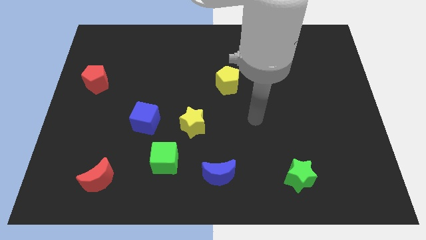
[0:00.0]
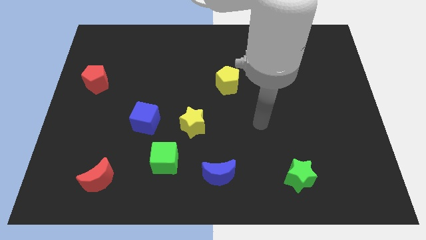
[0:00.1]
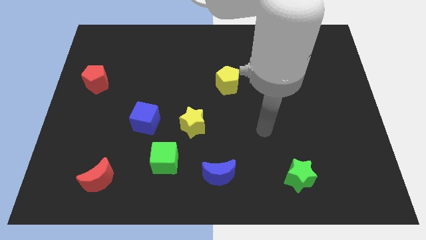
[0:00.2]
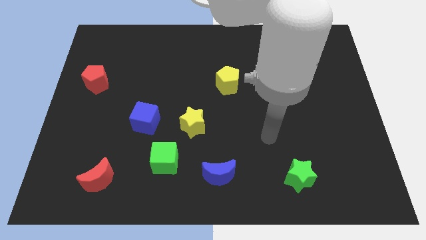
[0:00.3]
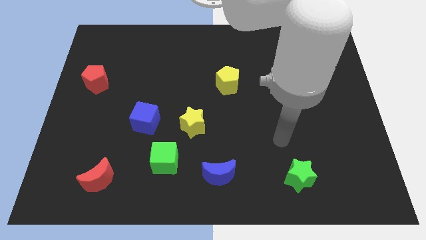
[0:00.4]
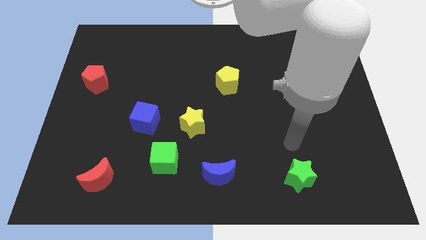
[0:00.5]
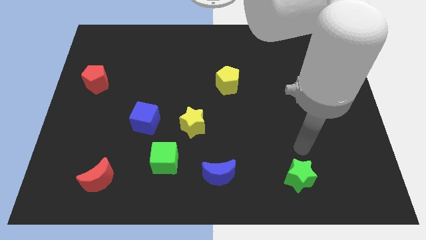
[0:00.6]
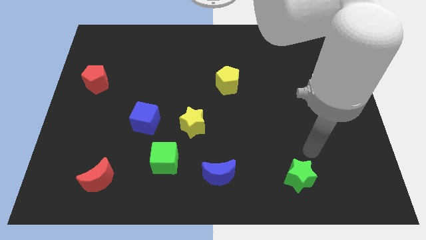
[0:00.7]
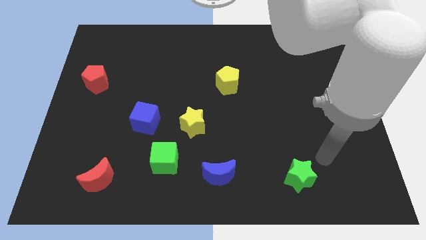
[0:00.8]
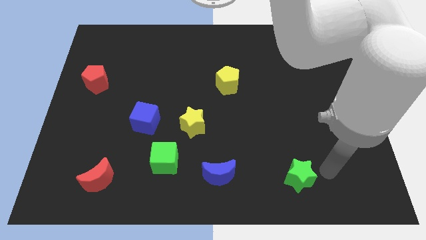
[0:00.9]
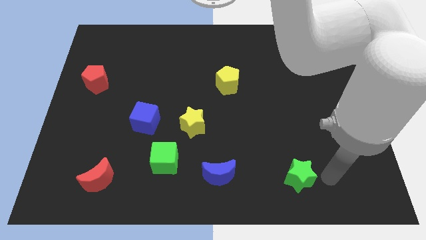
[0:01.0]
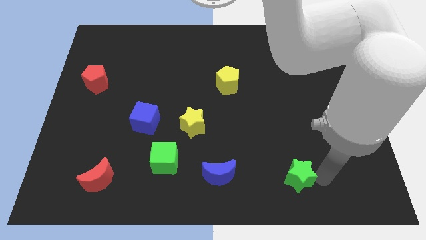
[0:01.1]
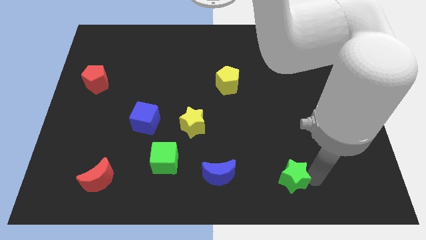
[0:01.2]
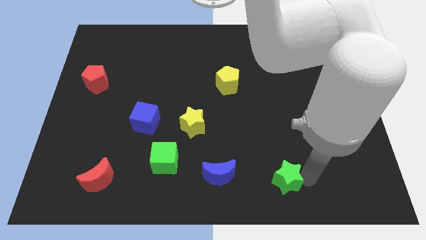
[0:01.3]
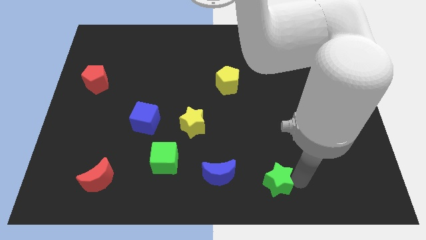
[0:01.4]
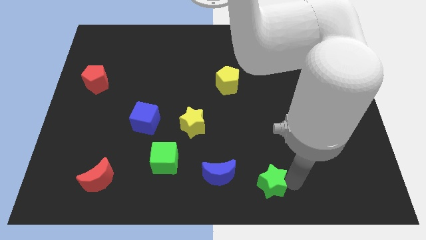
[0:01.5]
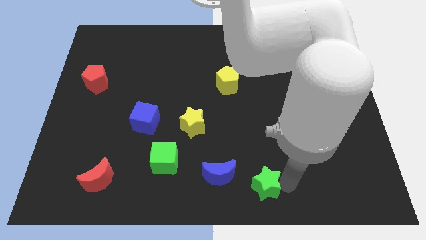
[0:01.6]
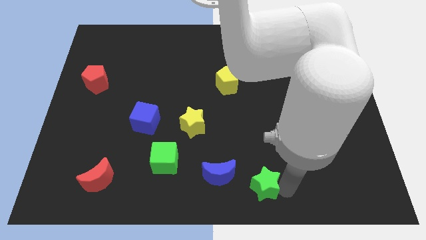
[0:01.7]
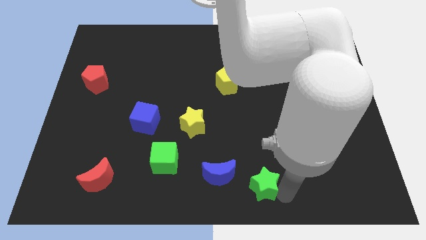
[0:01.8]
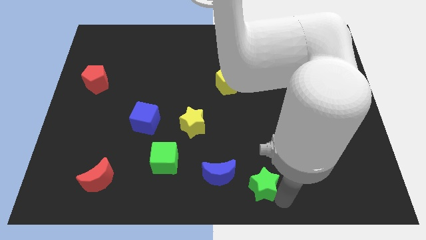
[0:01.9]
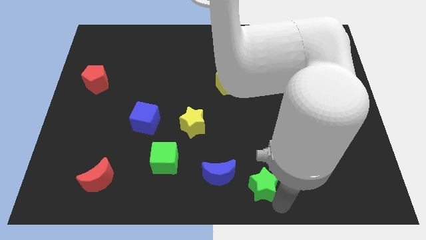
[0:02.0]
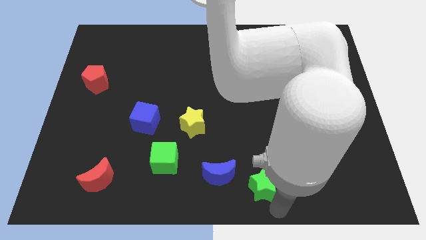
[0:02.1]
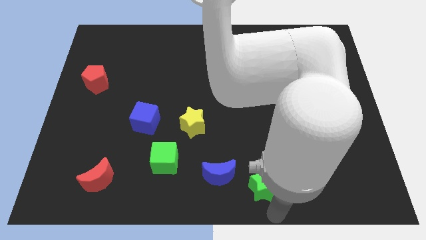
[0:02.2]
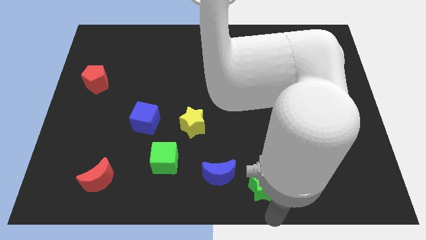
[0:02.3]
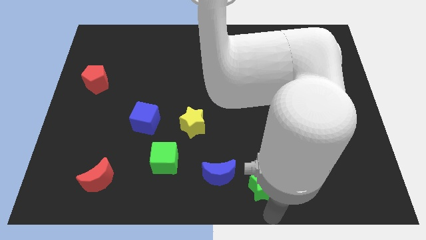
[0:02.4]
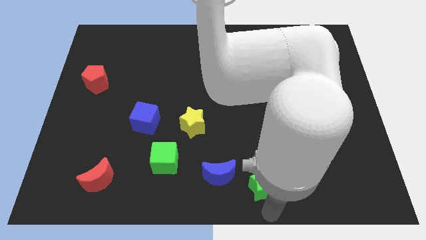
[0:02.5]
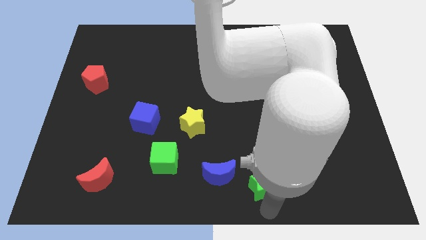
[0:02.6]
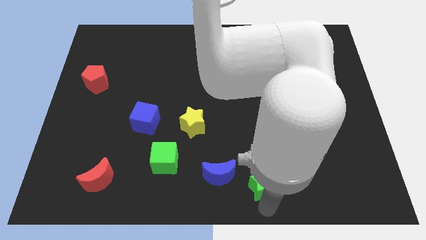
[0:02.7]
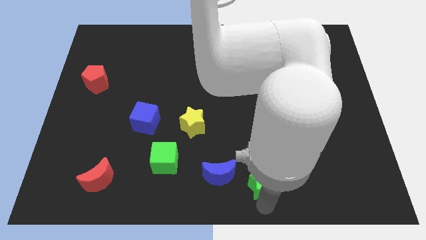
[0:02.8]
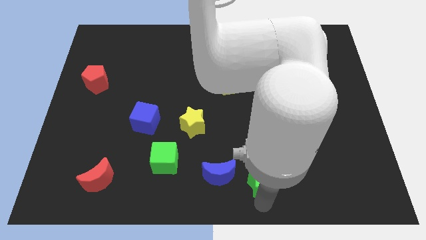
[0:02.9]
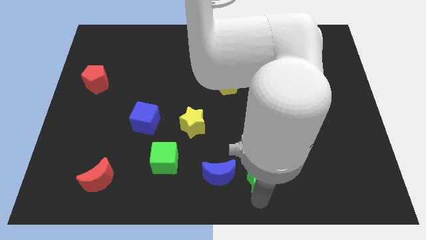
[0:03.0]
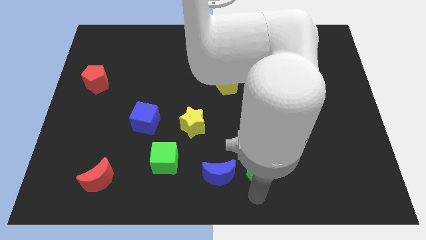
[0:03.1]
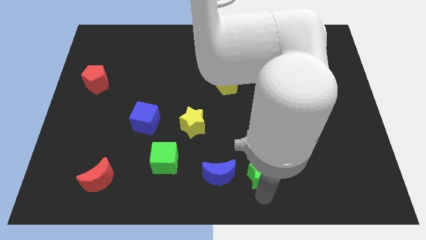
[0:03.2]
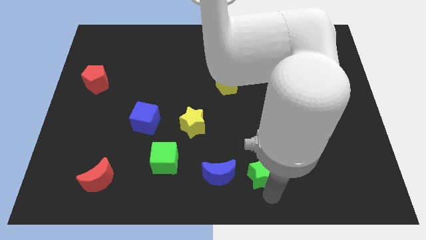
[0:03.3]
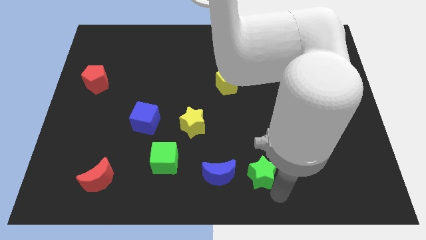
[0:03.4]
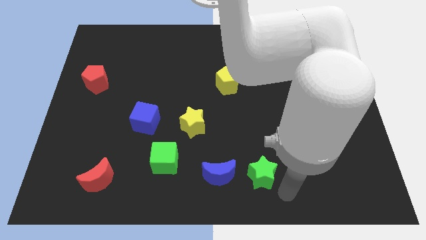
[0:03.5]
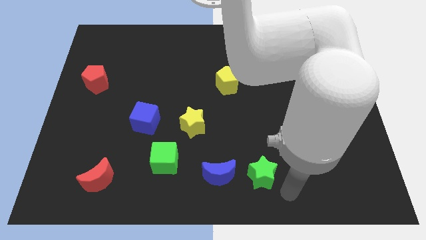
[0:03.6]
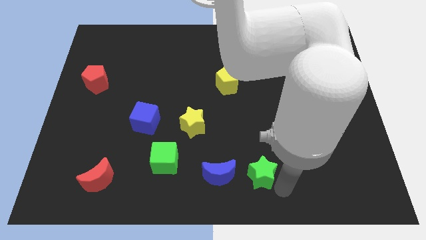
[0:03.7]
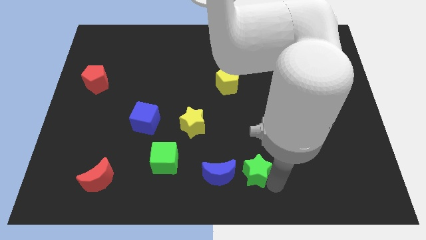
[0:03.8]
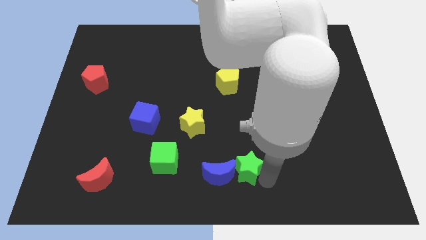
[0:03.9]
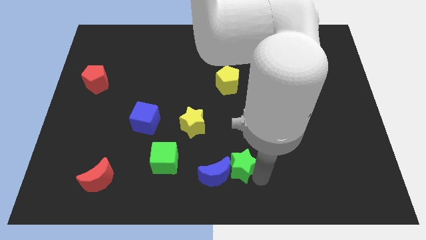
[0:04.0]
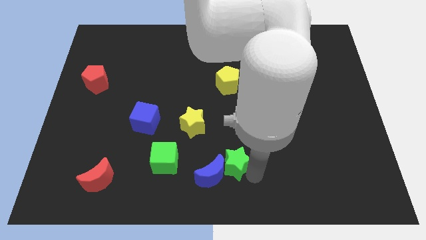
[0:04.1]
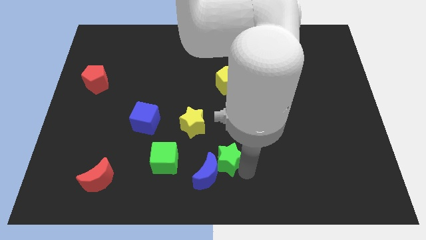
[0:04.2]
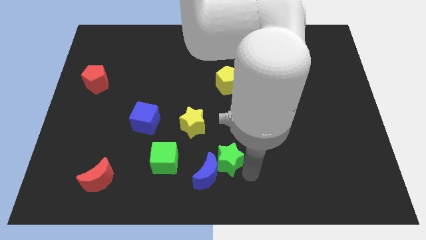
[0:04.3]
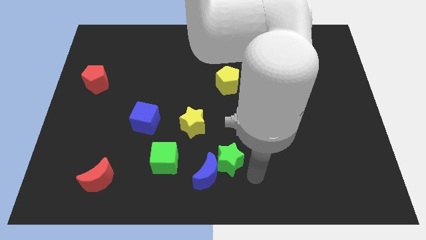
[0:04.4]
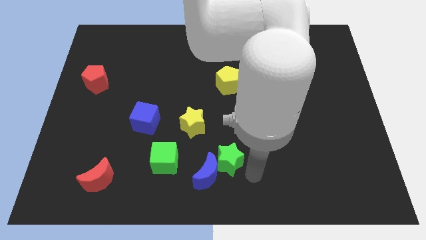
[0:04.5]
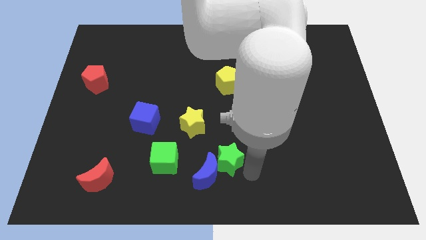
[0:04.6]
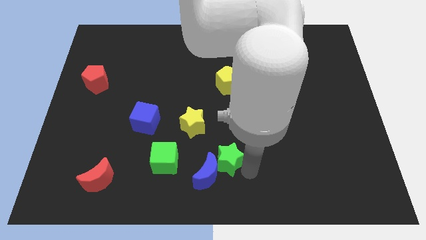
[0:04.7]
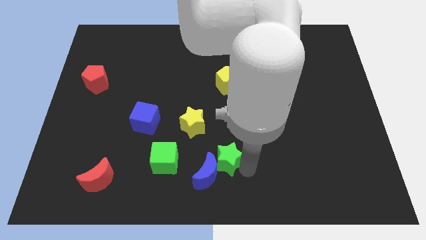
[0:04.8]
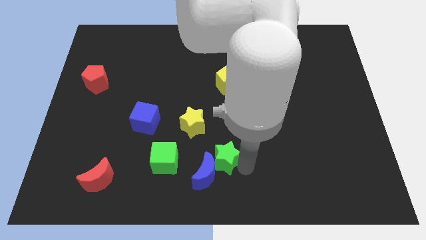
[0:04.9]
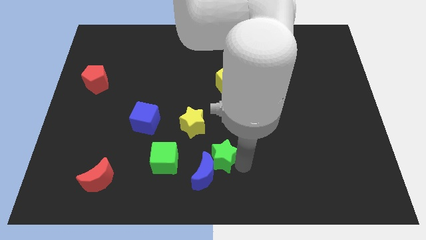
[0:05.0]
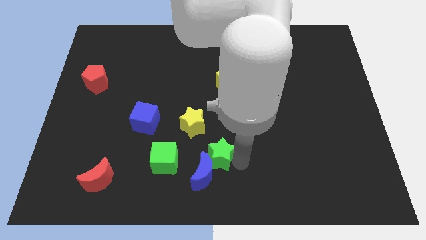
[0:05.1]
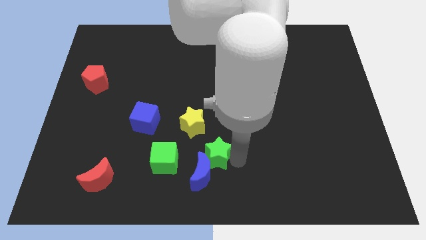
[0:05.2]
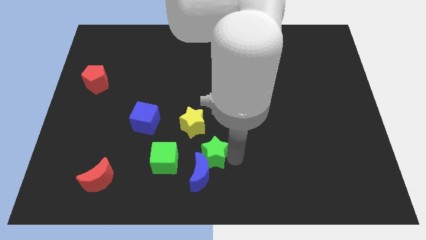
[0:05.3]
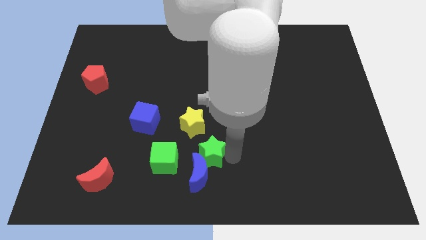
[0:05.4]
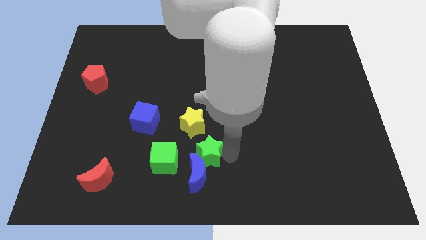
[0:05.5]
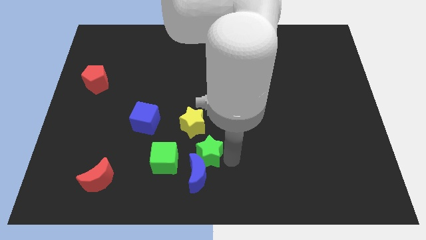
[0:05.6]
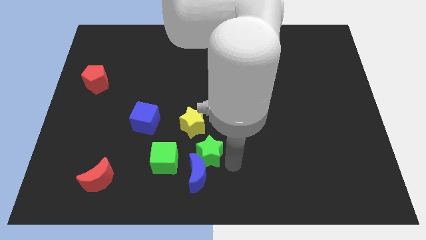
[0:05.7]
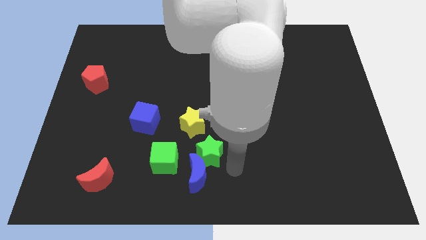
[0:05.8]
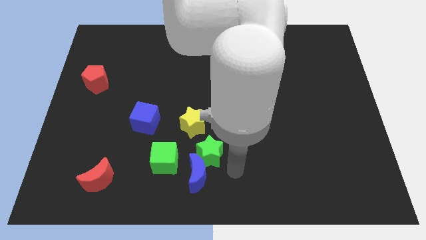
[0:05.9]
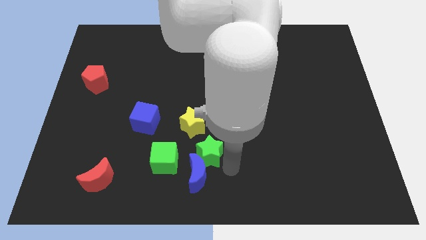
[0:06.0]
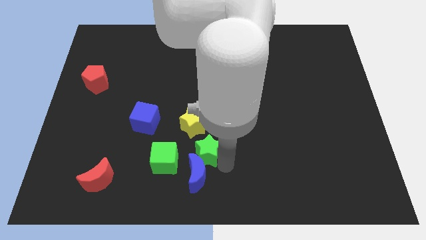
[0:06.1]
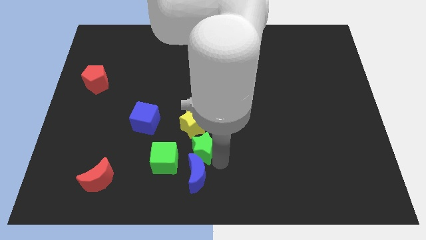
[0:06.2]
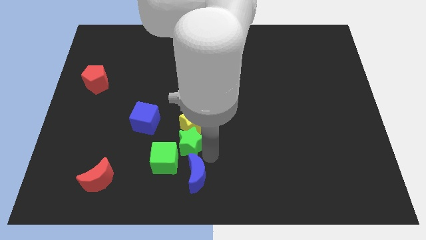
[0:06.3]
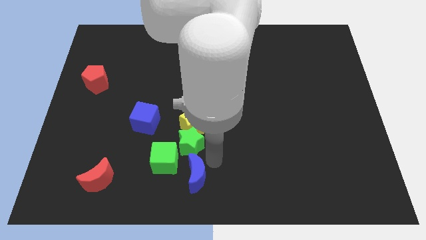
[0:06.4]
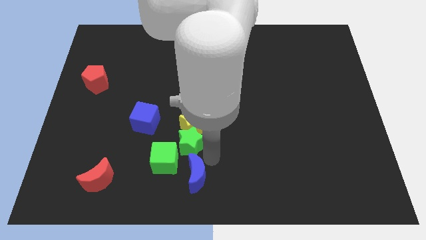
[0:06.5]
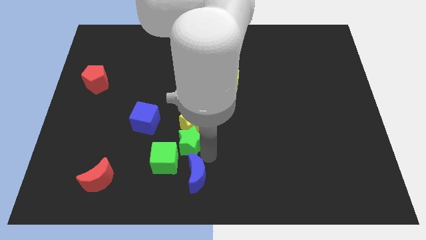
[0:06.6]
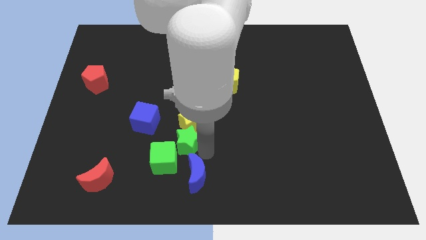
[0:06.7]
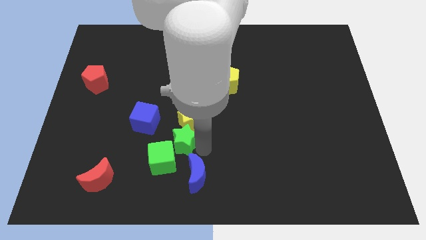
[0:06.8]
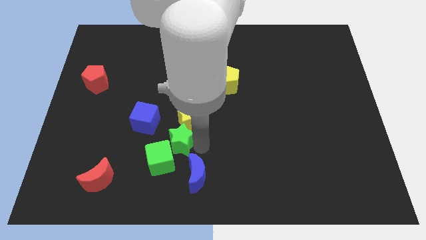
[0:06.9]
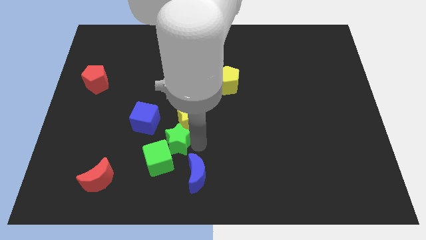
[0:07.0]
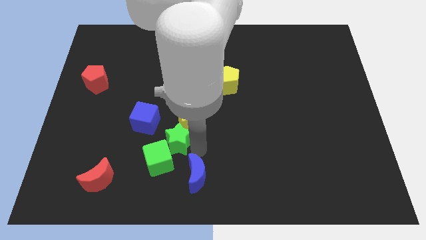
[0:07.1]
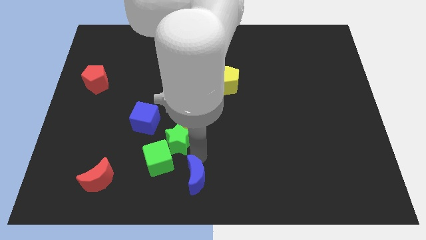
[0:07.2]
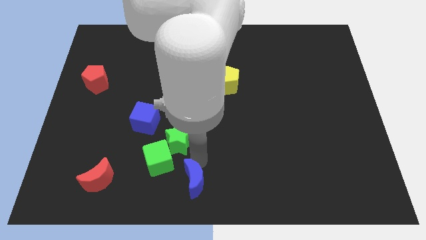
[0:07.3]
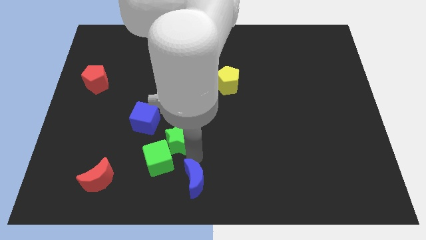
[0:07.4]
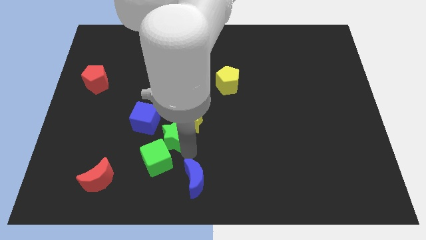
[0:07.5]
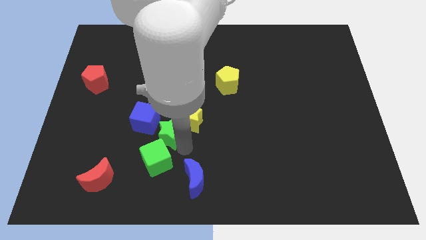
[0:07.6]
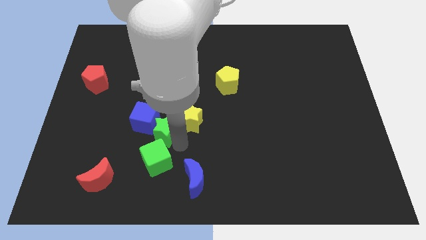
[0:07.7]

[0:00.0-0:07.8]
move the green star next to the blue cube
